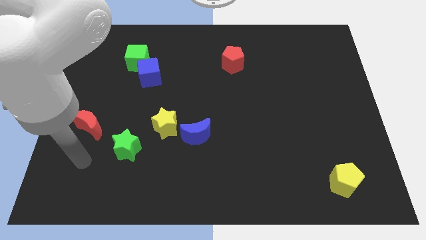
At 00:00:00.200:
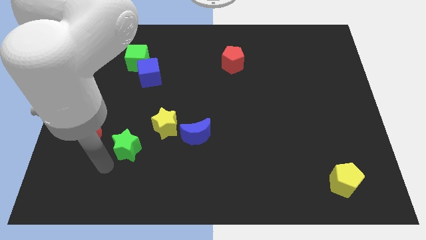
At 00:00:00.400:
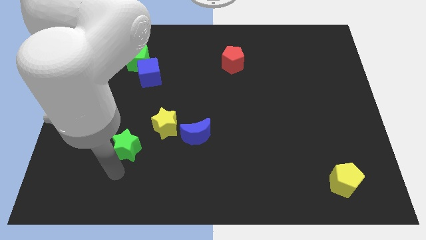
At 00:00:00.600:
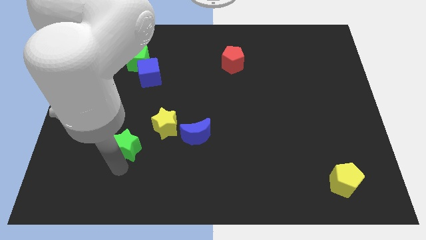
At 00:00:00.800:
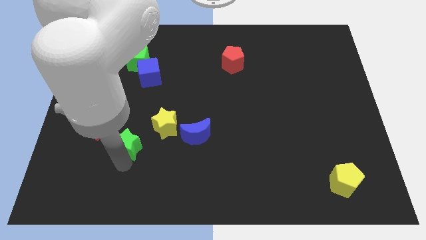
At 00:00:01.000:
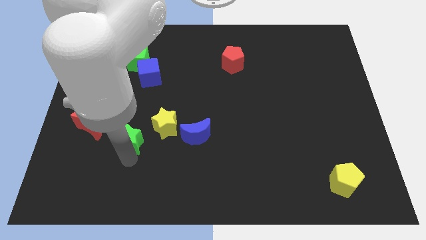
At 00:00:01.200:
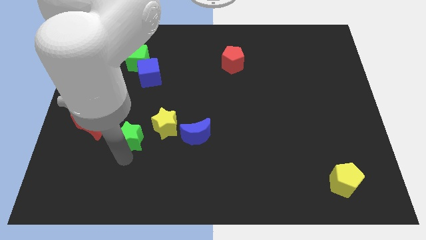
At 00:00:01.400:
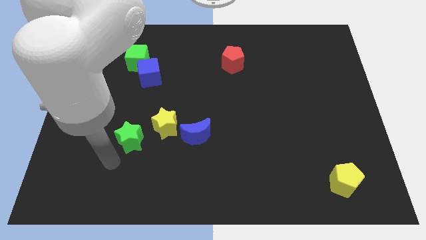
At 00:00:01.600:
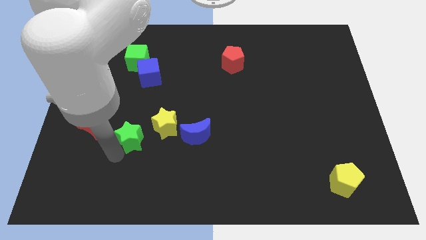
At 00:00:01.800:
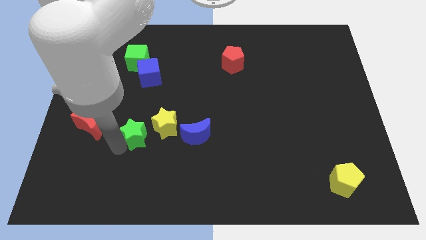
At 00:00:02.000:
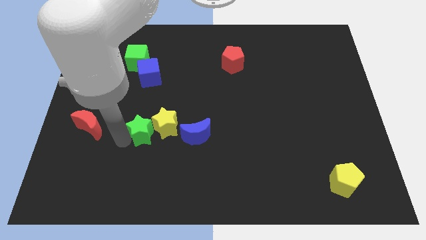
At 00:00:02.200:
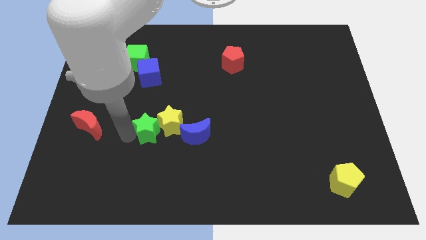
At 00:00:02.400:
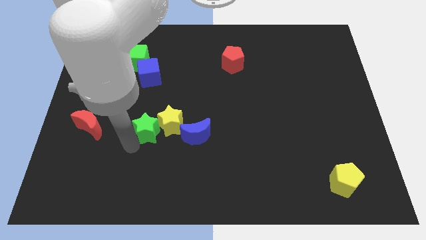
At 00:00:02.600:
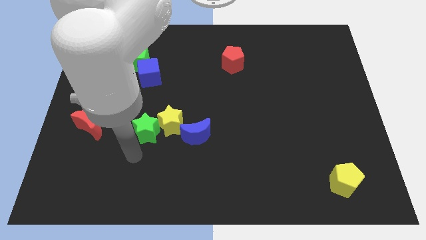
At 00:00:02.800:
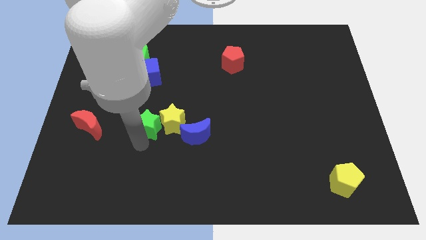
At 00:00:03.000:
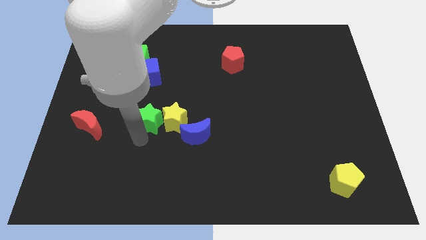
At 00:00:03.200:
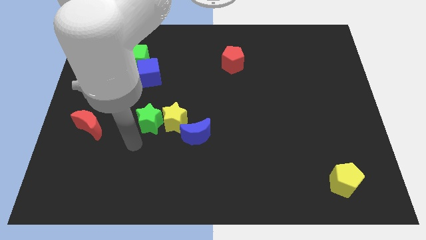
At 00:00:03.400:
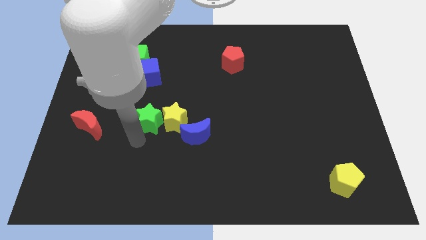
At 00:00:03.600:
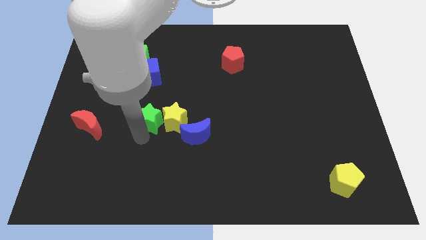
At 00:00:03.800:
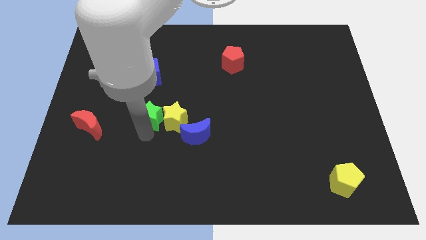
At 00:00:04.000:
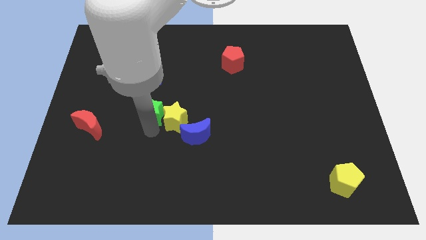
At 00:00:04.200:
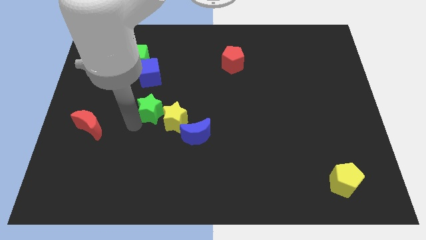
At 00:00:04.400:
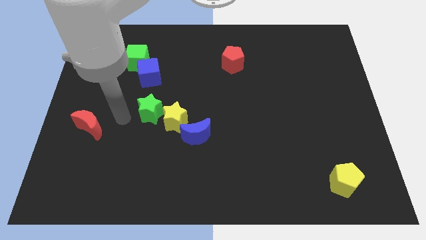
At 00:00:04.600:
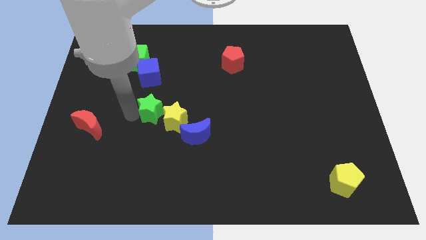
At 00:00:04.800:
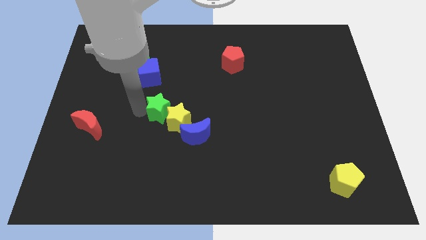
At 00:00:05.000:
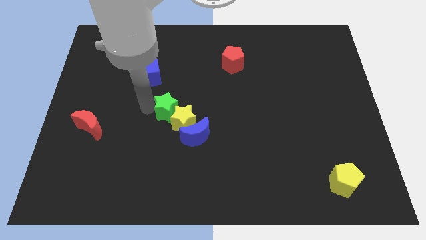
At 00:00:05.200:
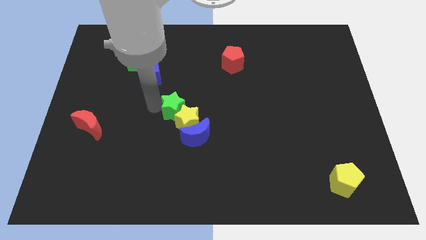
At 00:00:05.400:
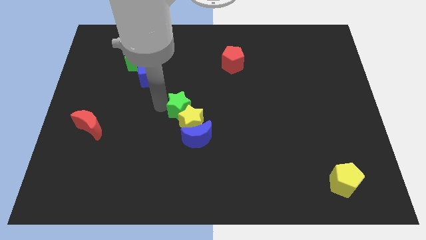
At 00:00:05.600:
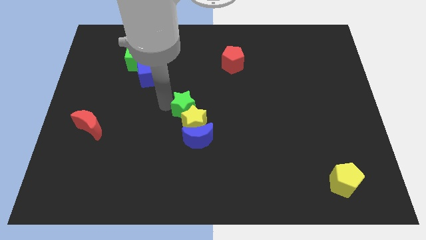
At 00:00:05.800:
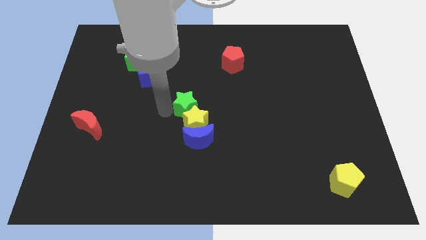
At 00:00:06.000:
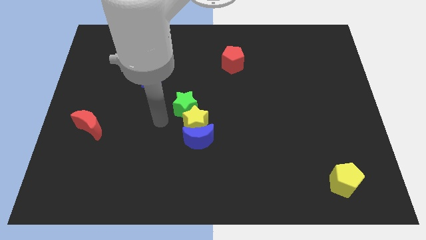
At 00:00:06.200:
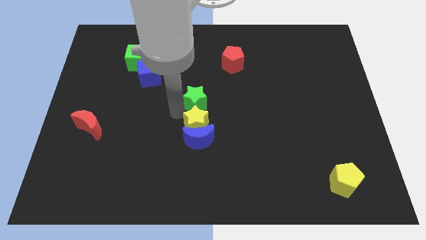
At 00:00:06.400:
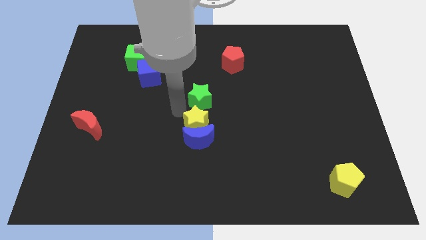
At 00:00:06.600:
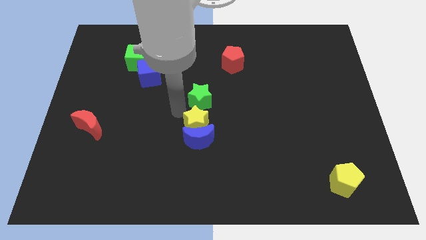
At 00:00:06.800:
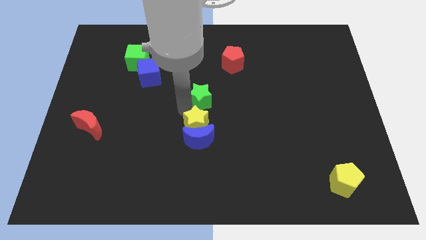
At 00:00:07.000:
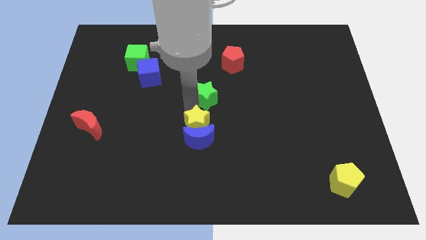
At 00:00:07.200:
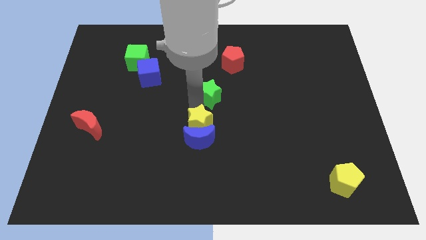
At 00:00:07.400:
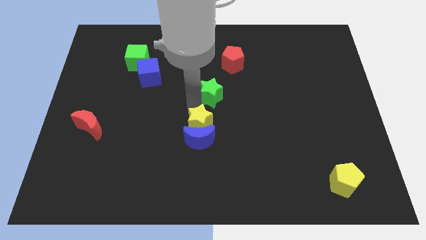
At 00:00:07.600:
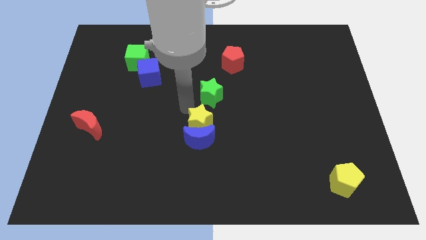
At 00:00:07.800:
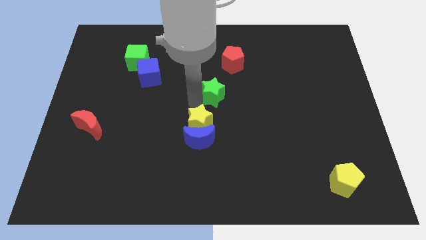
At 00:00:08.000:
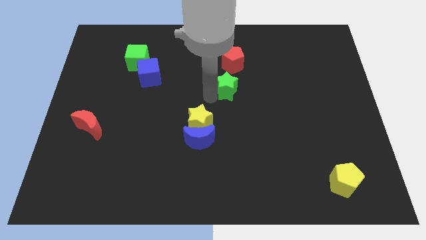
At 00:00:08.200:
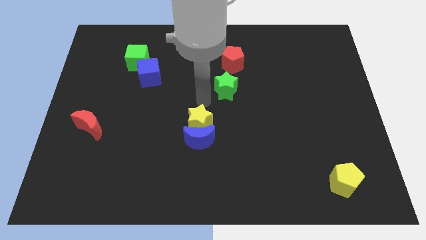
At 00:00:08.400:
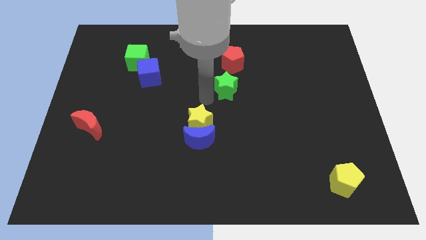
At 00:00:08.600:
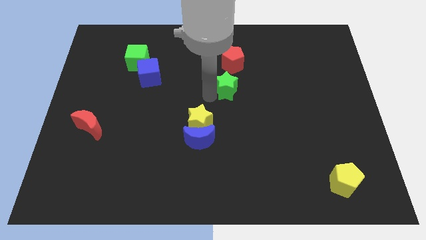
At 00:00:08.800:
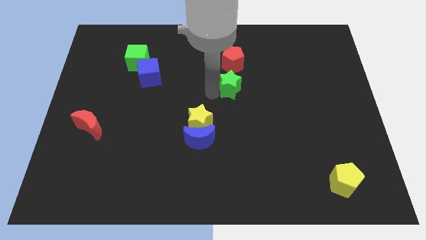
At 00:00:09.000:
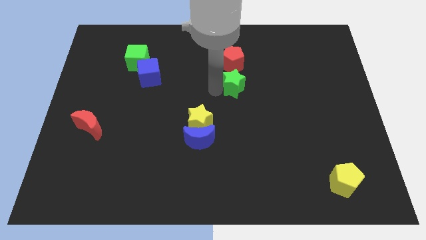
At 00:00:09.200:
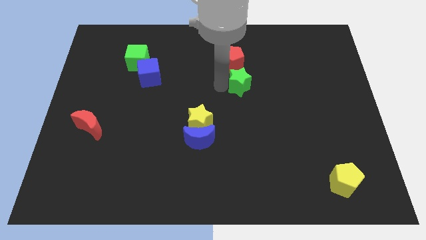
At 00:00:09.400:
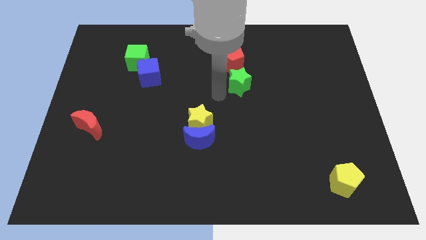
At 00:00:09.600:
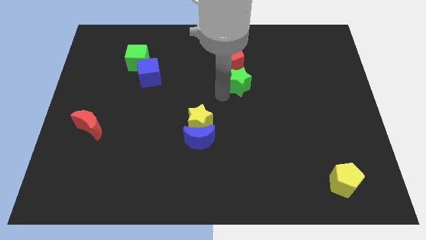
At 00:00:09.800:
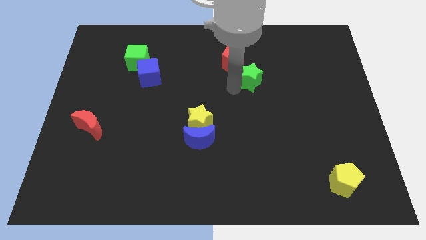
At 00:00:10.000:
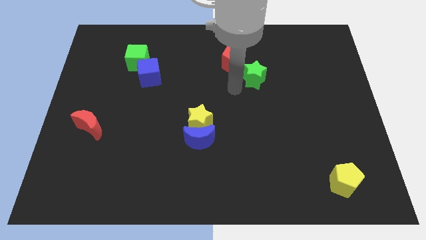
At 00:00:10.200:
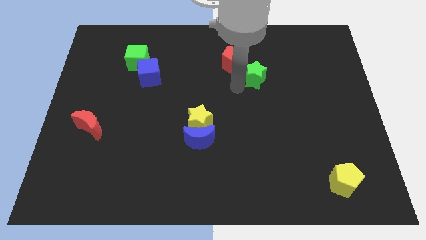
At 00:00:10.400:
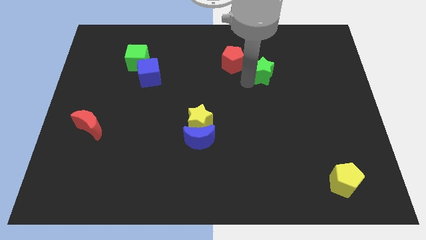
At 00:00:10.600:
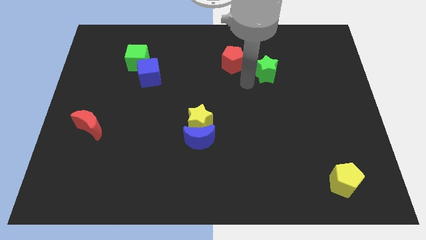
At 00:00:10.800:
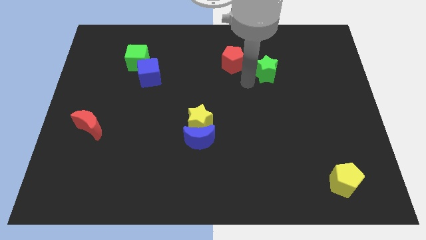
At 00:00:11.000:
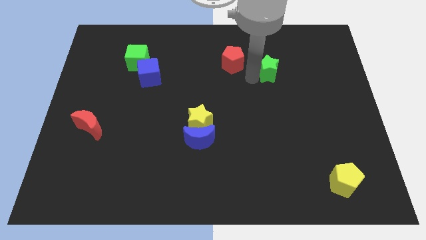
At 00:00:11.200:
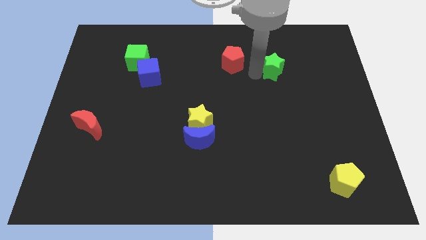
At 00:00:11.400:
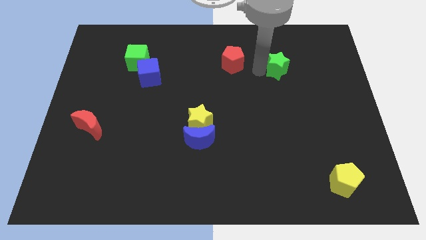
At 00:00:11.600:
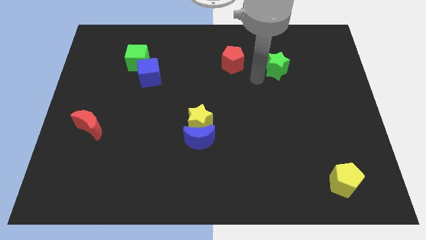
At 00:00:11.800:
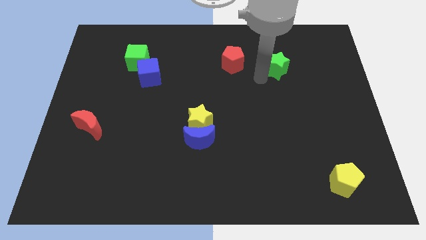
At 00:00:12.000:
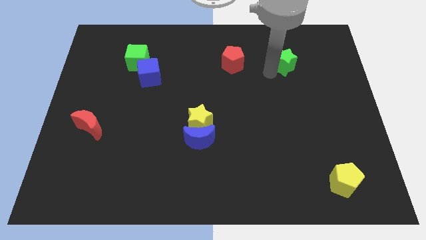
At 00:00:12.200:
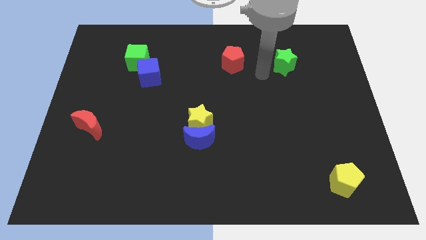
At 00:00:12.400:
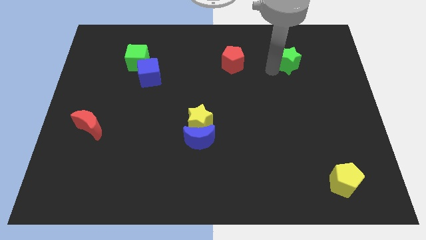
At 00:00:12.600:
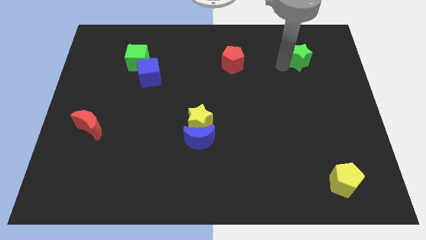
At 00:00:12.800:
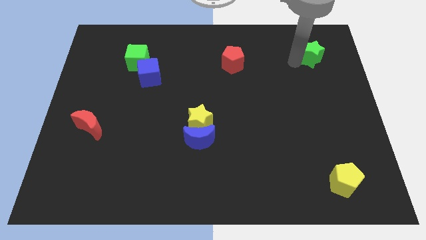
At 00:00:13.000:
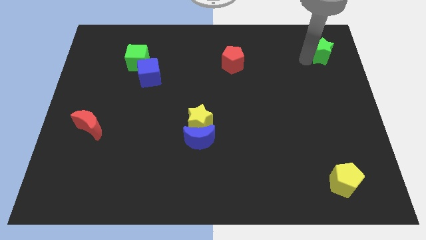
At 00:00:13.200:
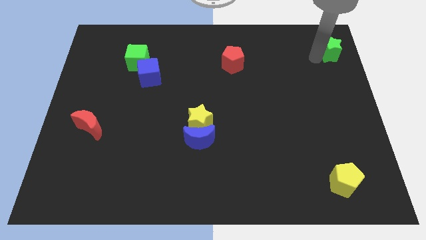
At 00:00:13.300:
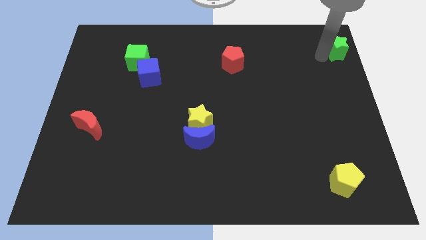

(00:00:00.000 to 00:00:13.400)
slide the green star to the top right of the board
